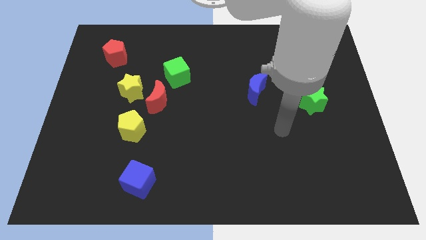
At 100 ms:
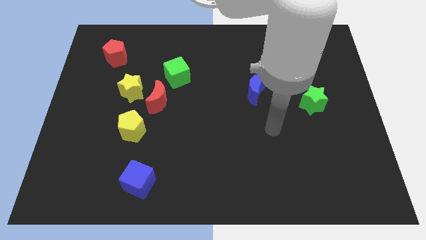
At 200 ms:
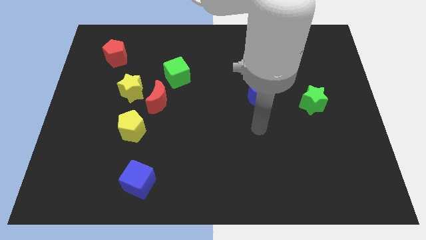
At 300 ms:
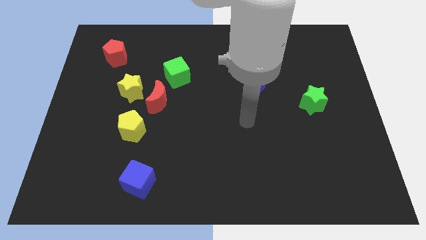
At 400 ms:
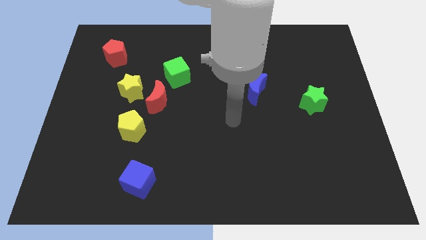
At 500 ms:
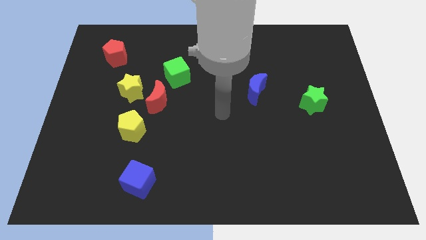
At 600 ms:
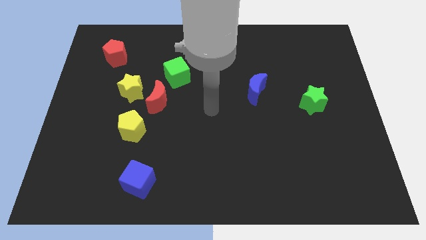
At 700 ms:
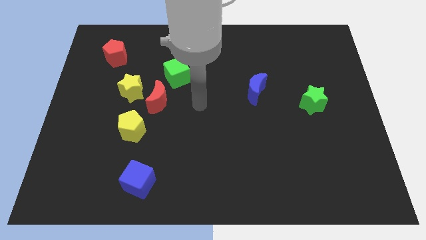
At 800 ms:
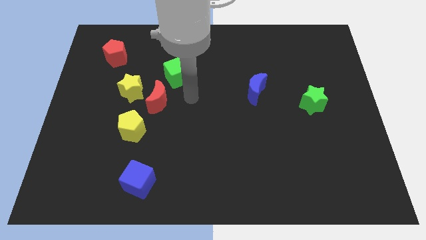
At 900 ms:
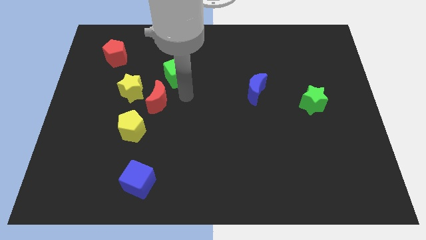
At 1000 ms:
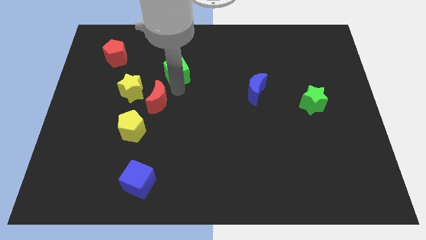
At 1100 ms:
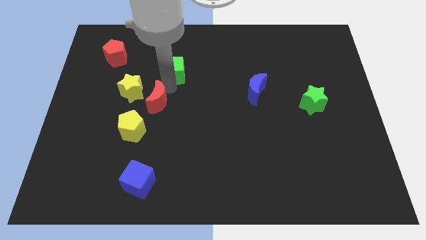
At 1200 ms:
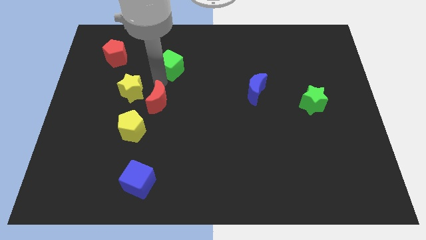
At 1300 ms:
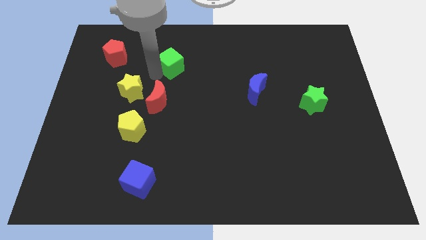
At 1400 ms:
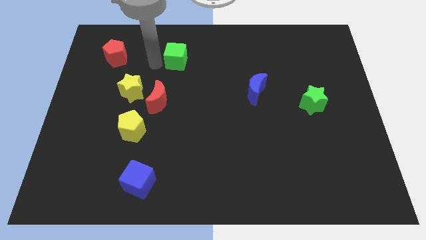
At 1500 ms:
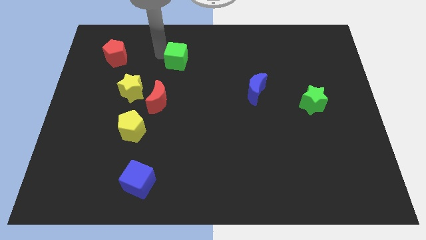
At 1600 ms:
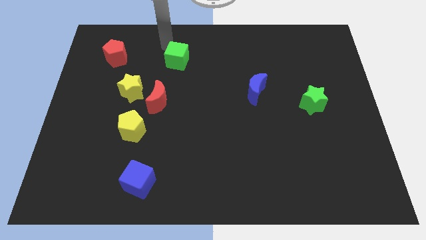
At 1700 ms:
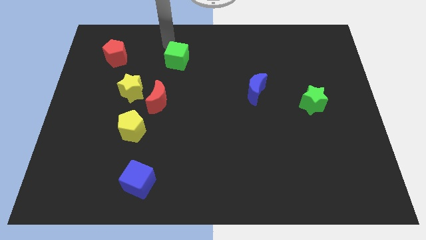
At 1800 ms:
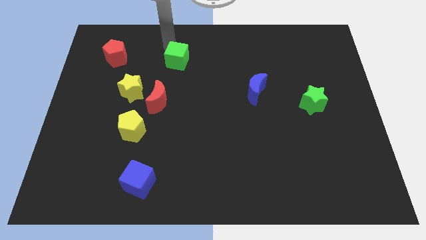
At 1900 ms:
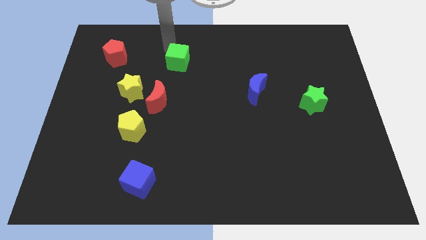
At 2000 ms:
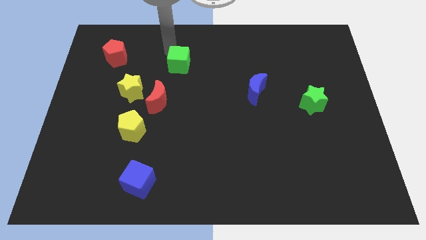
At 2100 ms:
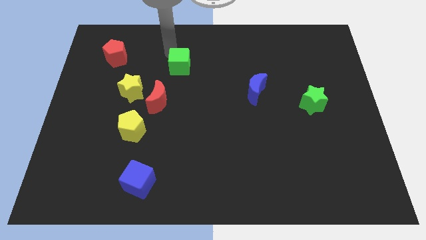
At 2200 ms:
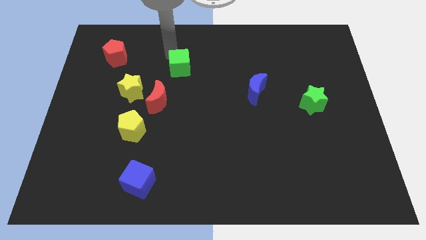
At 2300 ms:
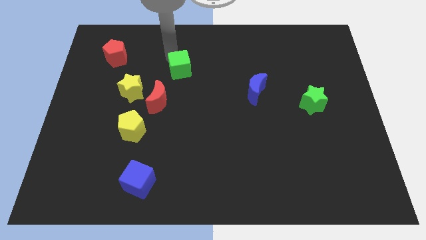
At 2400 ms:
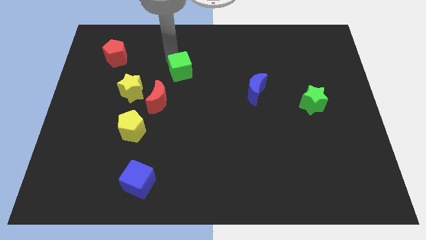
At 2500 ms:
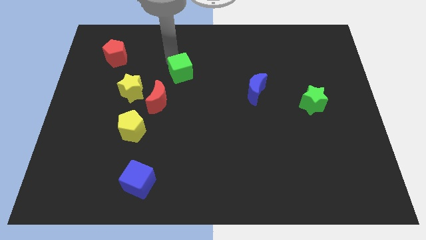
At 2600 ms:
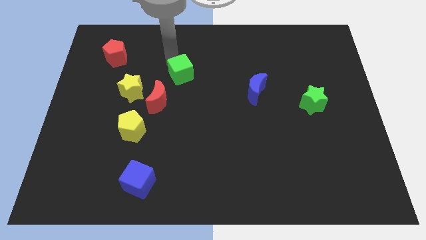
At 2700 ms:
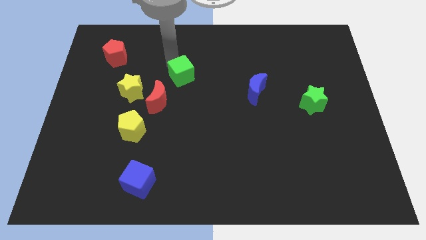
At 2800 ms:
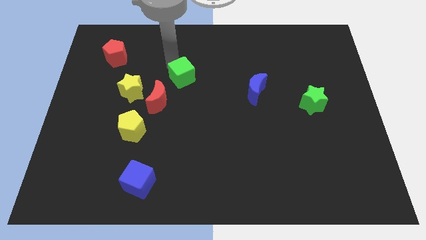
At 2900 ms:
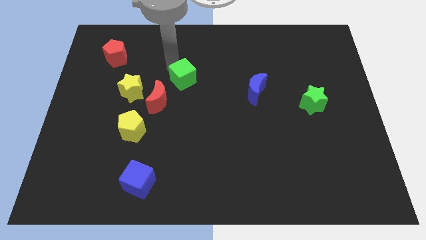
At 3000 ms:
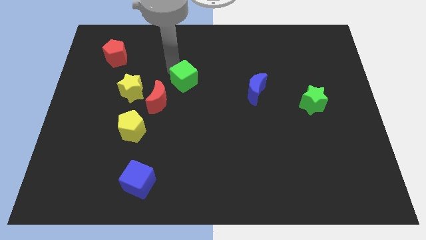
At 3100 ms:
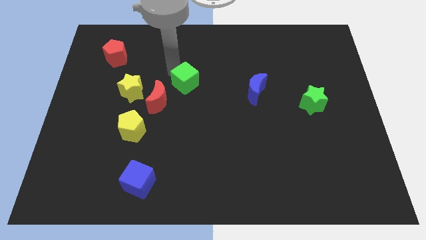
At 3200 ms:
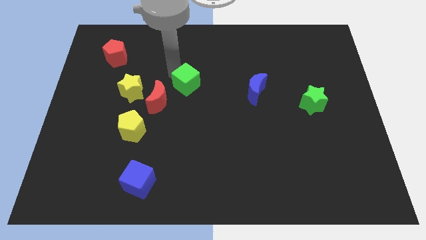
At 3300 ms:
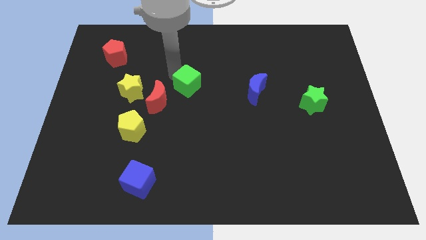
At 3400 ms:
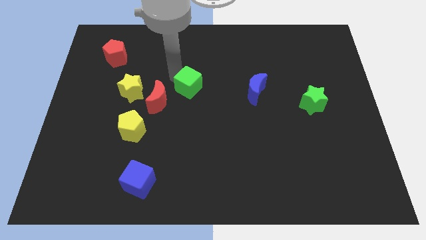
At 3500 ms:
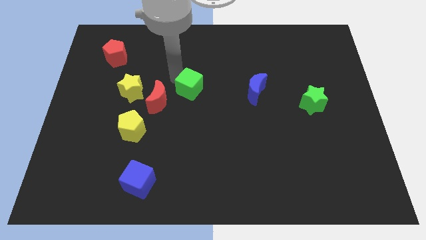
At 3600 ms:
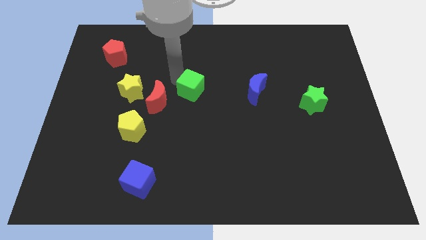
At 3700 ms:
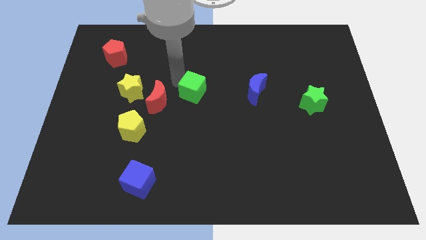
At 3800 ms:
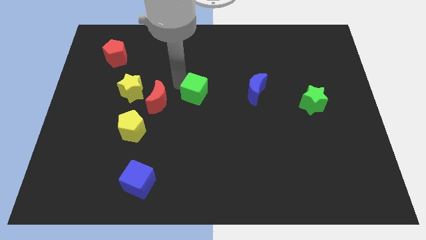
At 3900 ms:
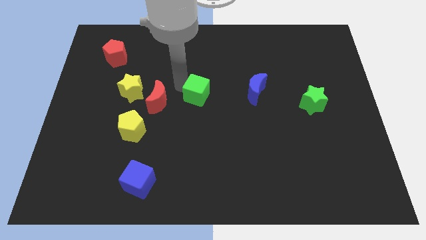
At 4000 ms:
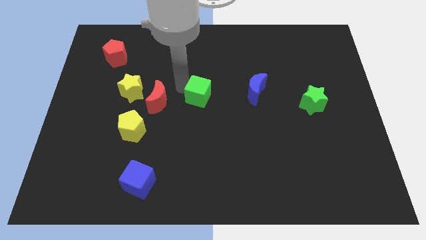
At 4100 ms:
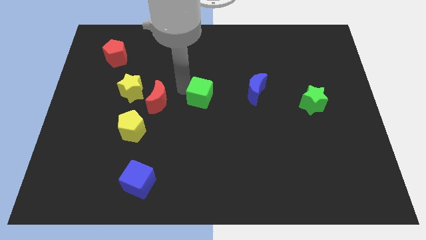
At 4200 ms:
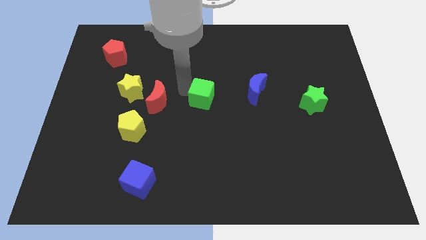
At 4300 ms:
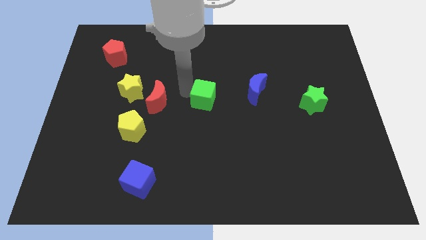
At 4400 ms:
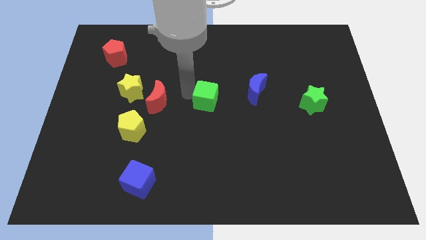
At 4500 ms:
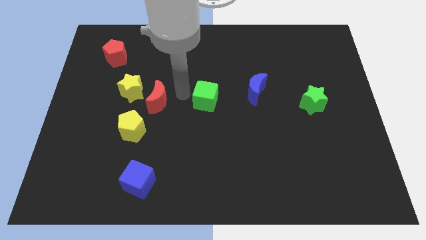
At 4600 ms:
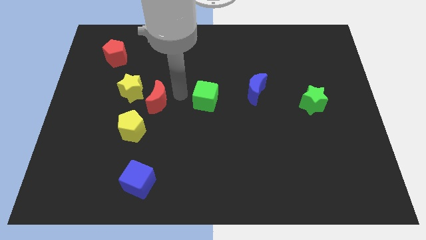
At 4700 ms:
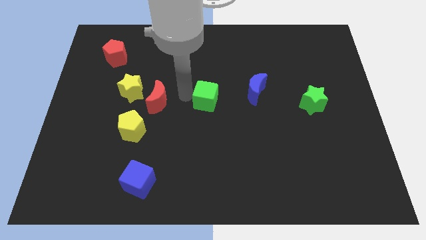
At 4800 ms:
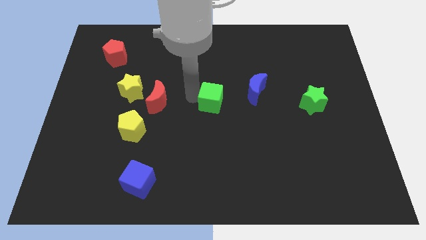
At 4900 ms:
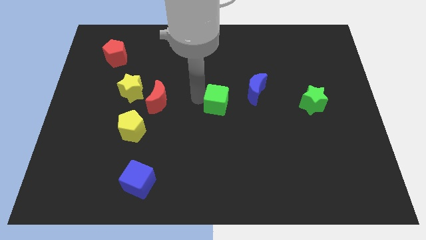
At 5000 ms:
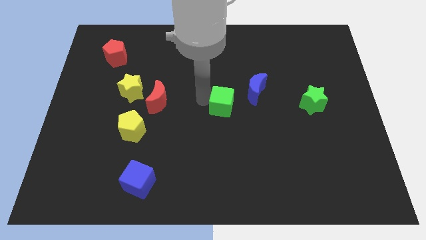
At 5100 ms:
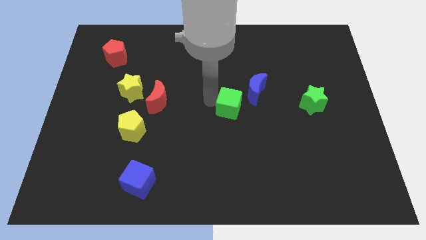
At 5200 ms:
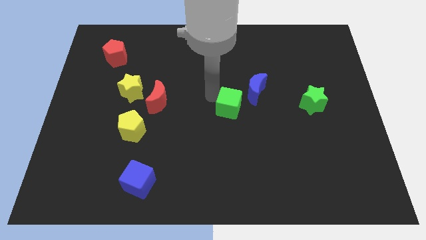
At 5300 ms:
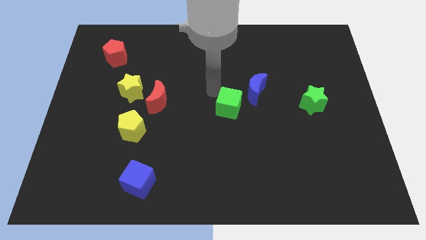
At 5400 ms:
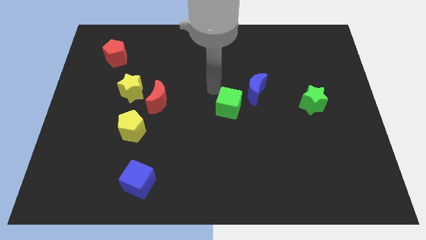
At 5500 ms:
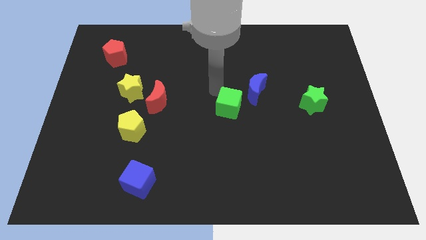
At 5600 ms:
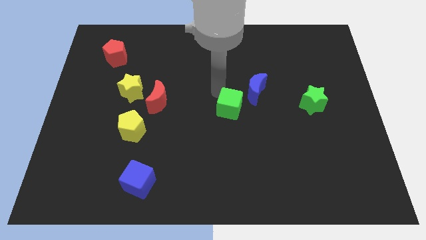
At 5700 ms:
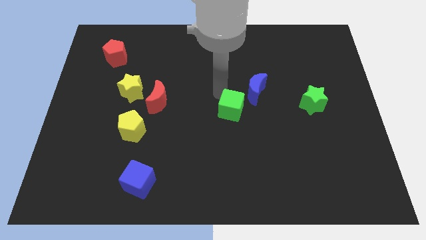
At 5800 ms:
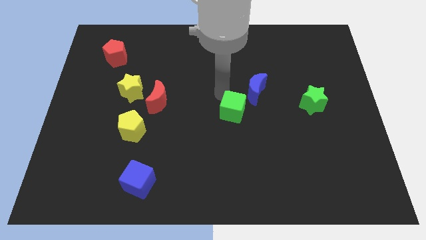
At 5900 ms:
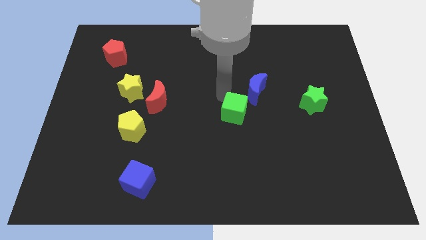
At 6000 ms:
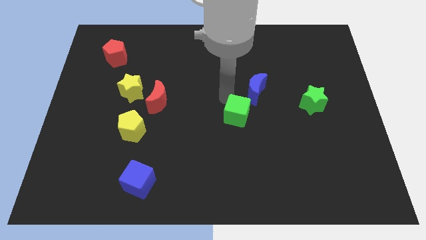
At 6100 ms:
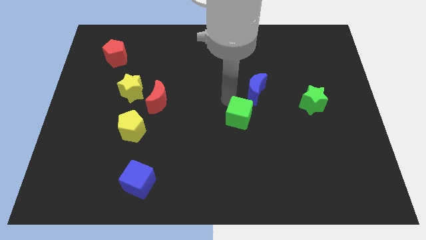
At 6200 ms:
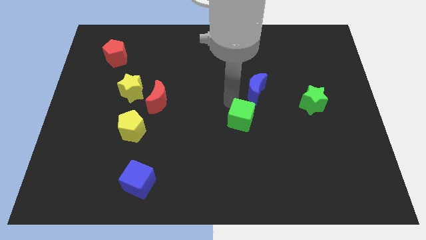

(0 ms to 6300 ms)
slide the green cube downwards and then to the right

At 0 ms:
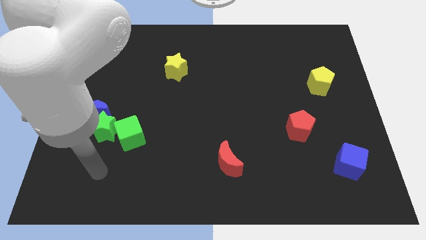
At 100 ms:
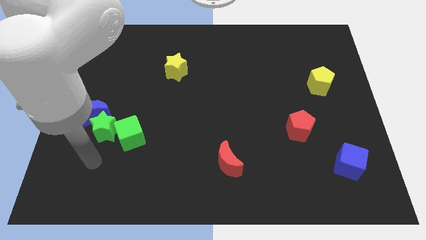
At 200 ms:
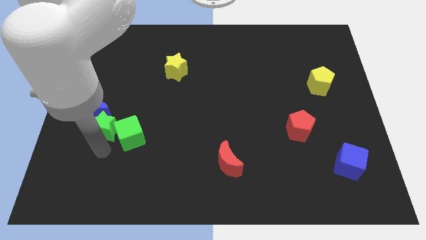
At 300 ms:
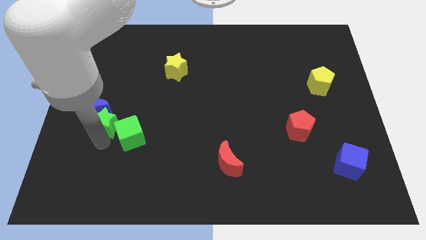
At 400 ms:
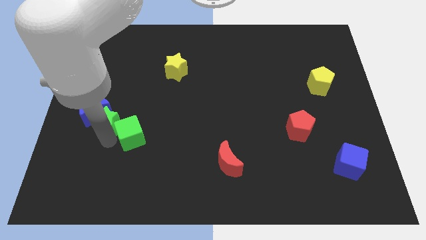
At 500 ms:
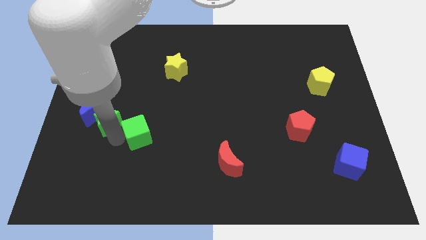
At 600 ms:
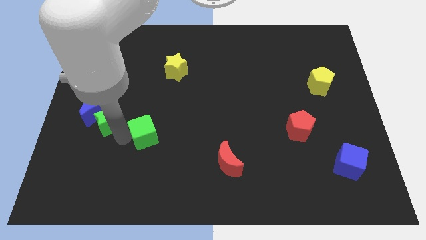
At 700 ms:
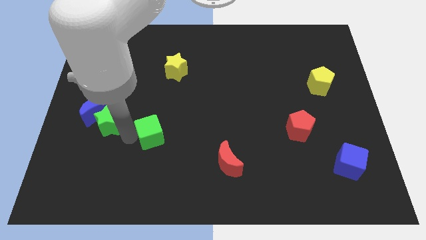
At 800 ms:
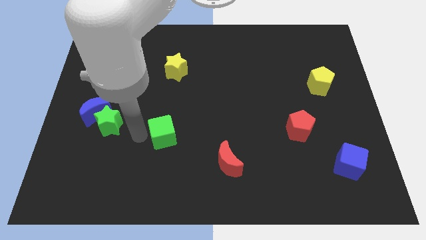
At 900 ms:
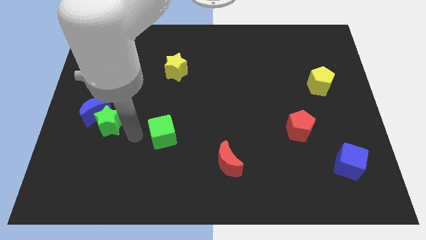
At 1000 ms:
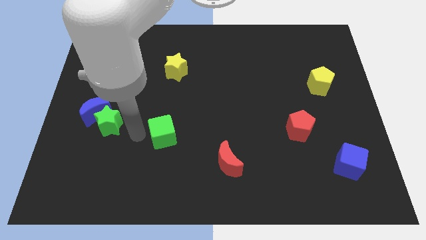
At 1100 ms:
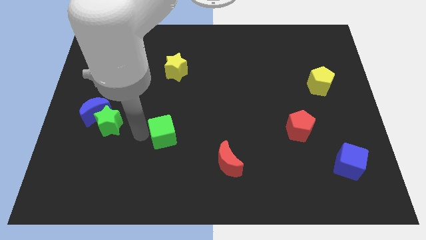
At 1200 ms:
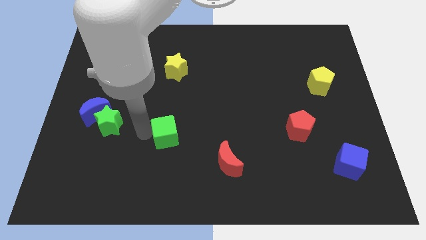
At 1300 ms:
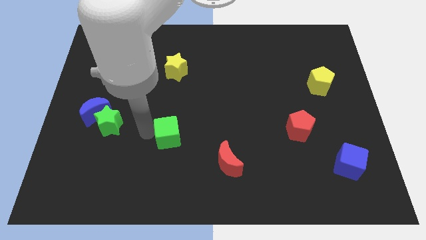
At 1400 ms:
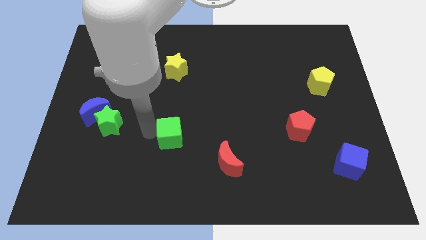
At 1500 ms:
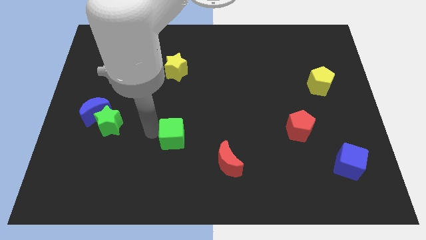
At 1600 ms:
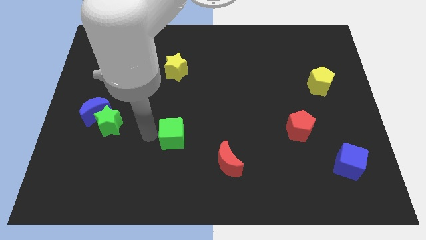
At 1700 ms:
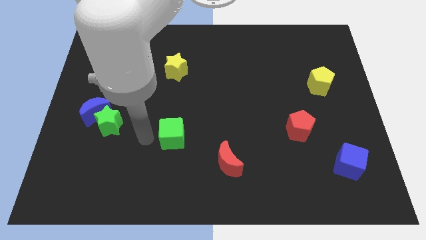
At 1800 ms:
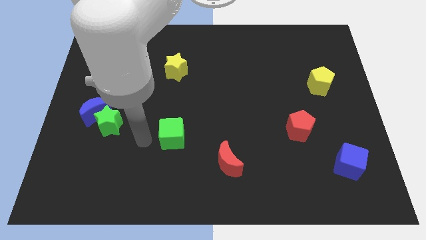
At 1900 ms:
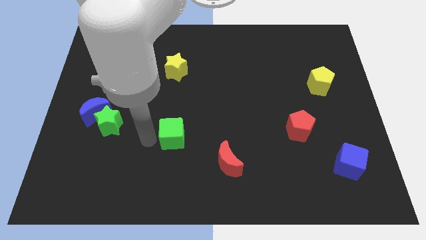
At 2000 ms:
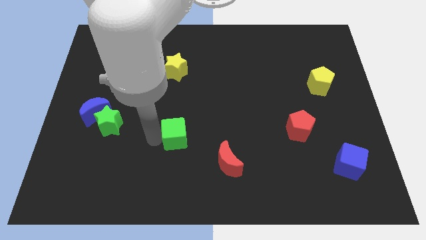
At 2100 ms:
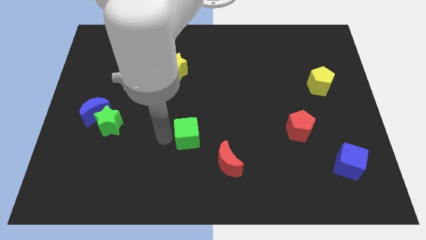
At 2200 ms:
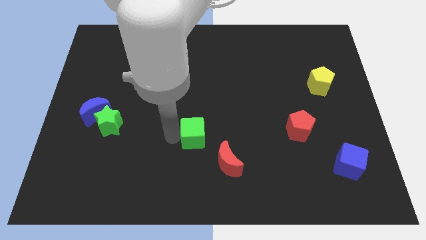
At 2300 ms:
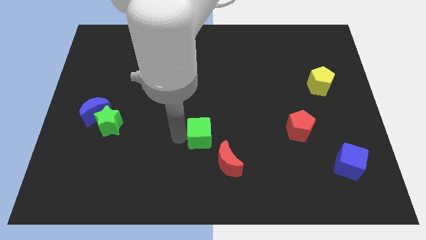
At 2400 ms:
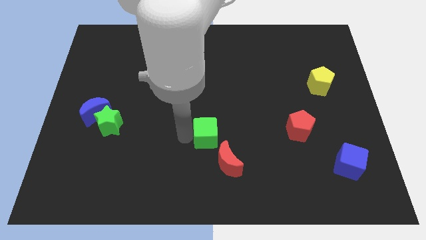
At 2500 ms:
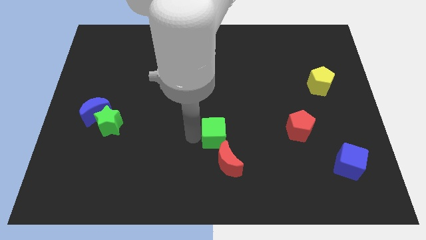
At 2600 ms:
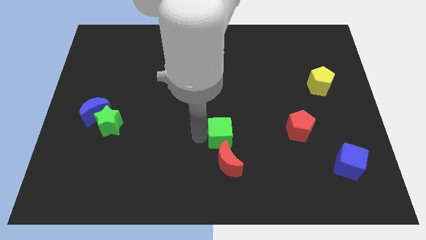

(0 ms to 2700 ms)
slide the green cube right
